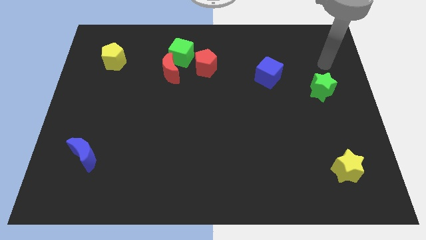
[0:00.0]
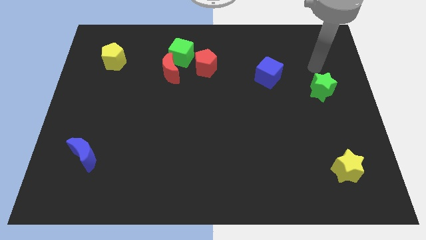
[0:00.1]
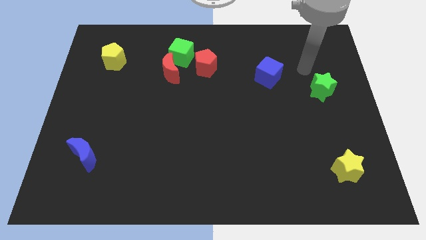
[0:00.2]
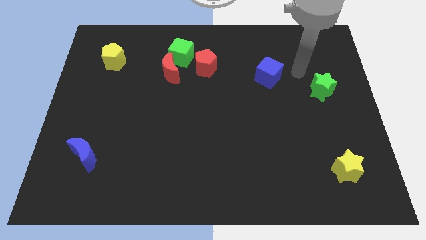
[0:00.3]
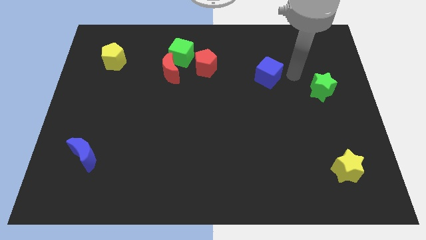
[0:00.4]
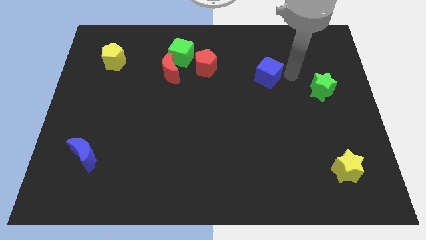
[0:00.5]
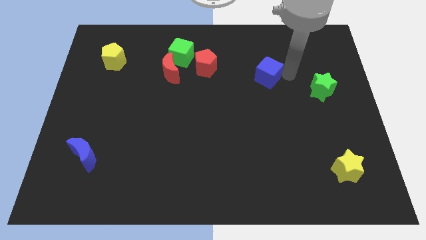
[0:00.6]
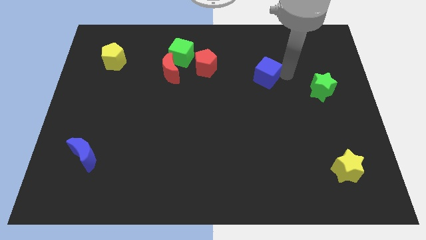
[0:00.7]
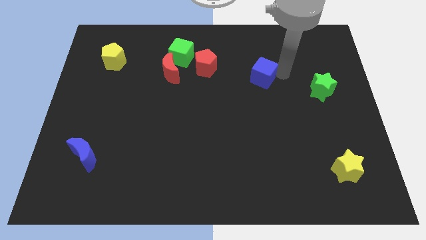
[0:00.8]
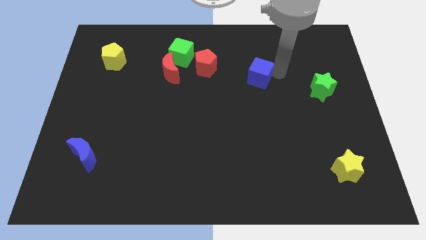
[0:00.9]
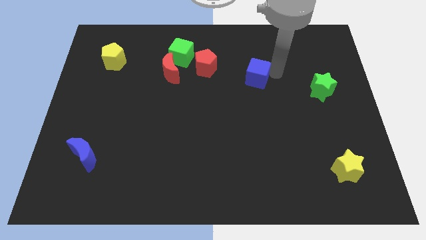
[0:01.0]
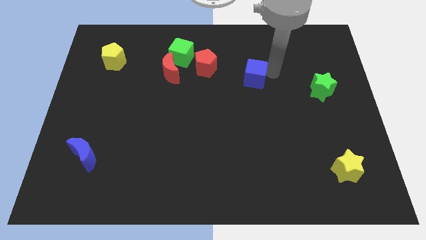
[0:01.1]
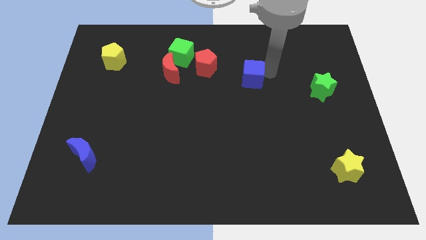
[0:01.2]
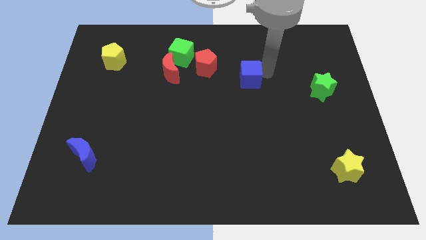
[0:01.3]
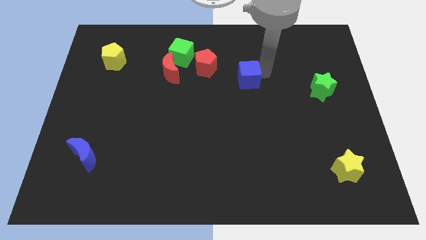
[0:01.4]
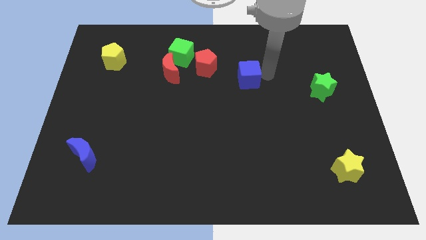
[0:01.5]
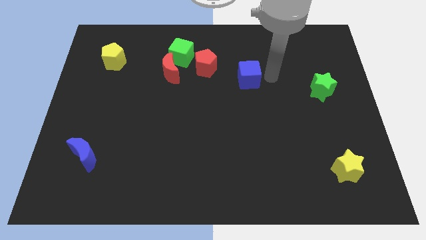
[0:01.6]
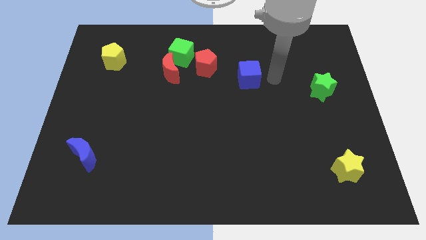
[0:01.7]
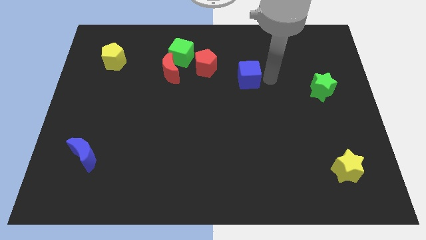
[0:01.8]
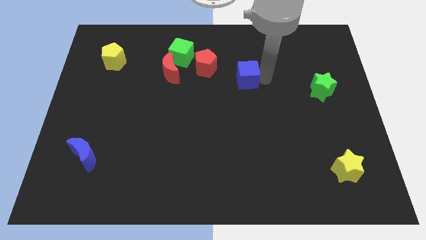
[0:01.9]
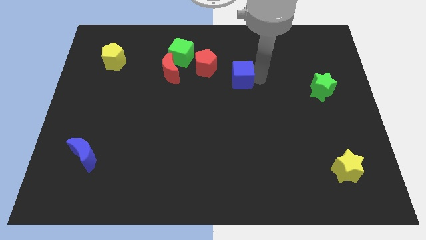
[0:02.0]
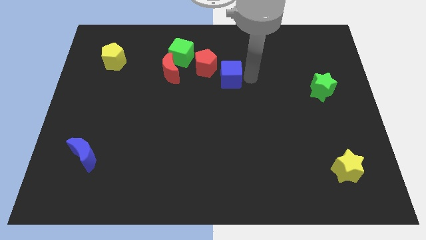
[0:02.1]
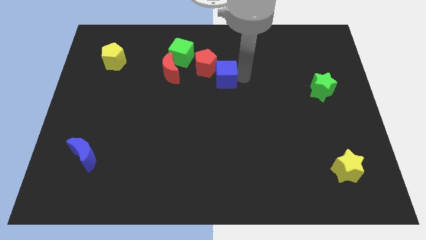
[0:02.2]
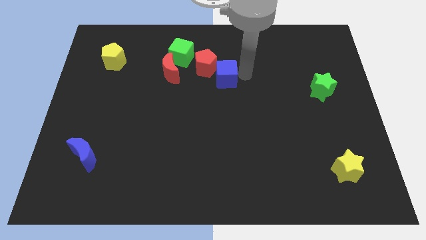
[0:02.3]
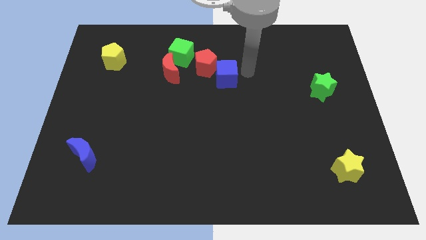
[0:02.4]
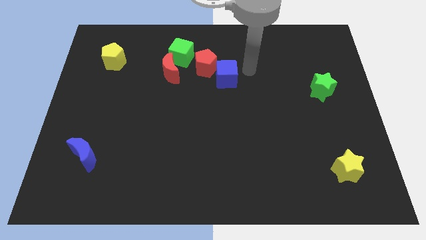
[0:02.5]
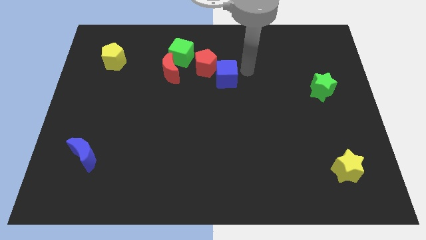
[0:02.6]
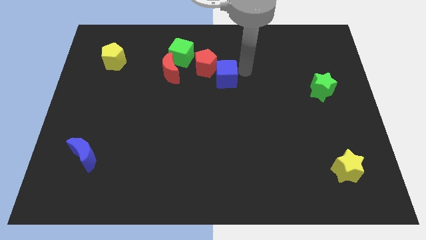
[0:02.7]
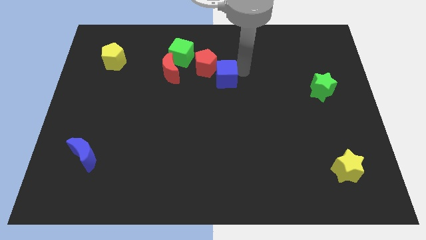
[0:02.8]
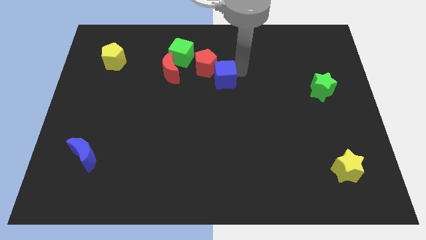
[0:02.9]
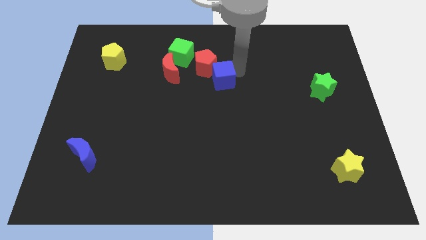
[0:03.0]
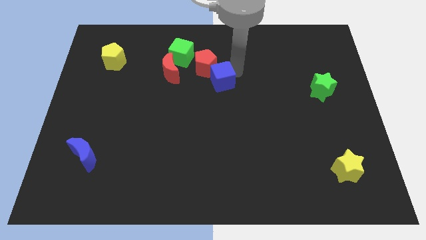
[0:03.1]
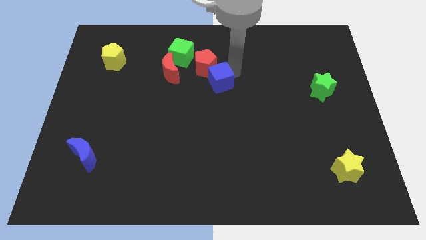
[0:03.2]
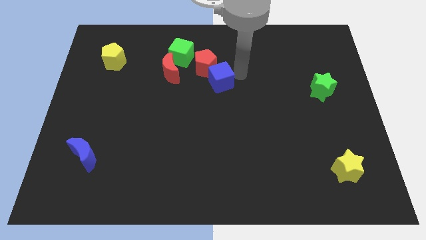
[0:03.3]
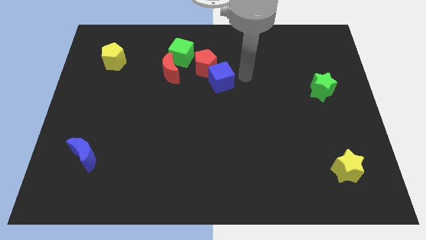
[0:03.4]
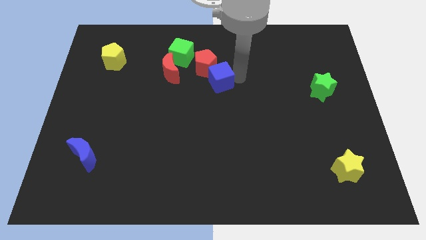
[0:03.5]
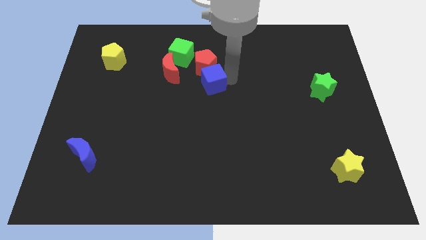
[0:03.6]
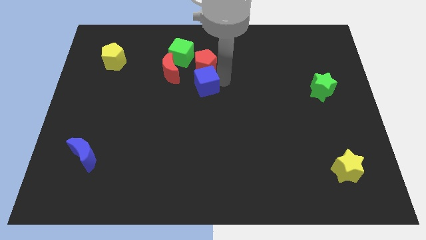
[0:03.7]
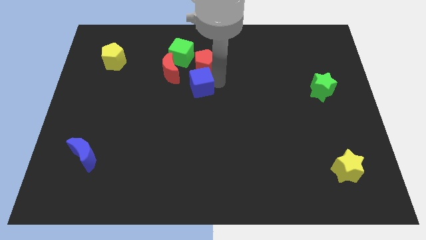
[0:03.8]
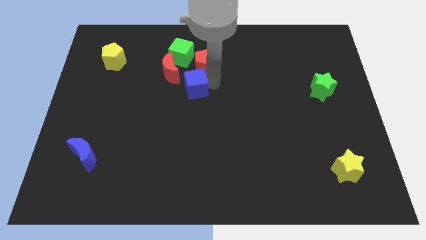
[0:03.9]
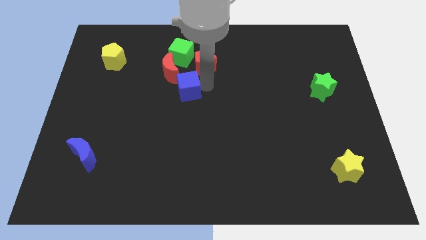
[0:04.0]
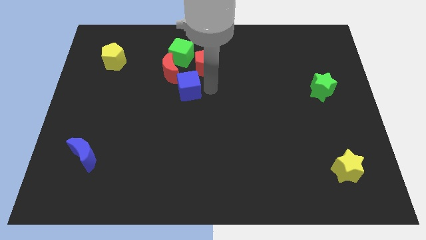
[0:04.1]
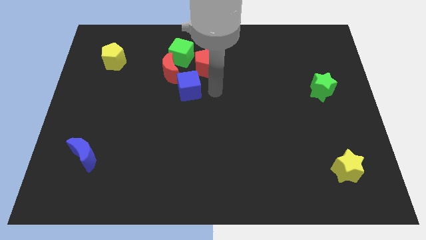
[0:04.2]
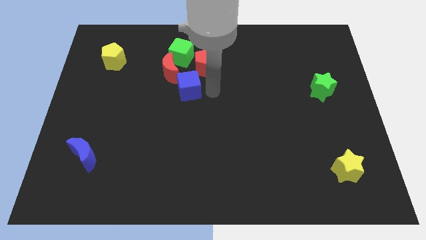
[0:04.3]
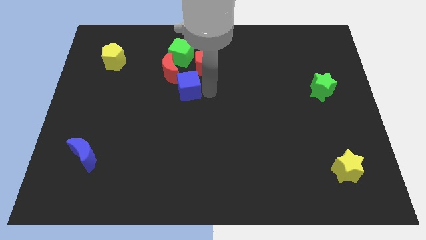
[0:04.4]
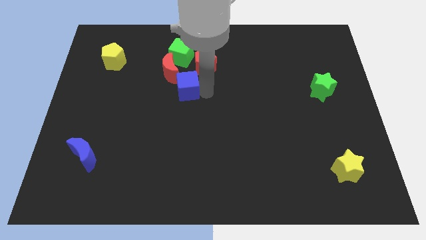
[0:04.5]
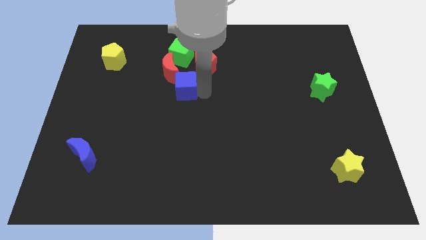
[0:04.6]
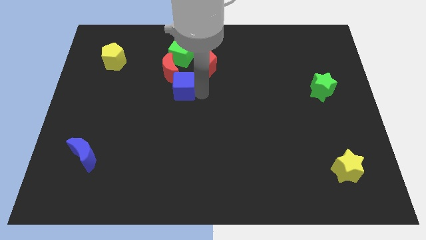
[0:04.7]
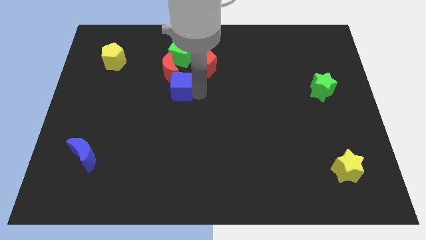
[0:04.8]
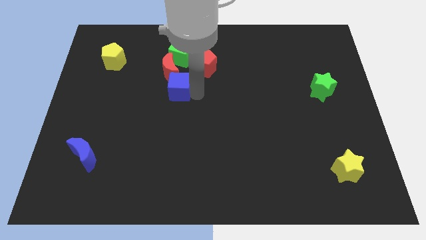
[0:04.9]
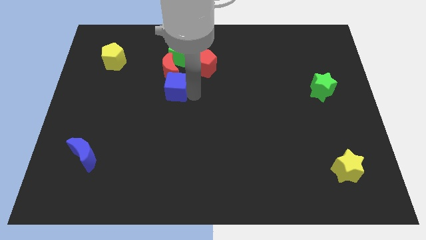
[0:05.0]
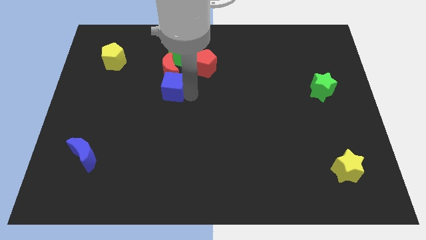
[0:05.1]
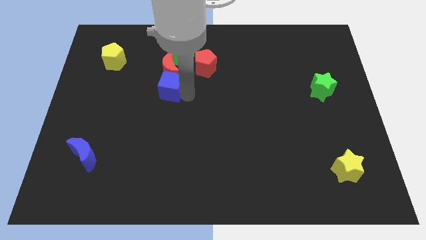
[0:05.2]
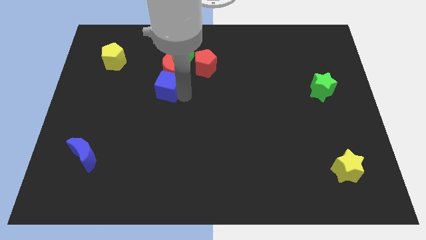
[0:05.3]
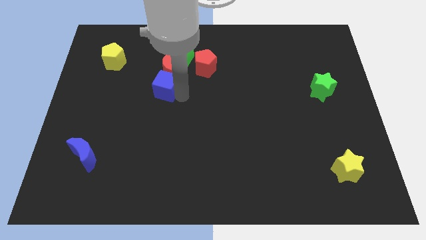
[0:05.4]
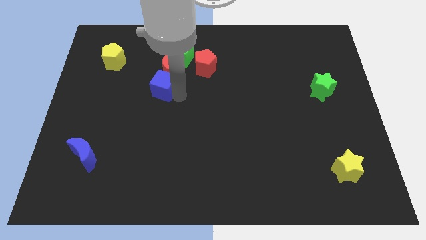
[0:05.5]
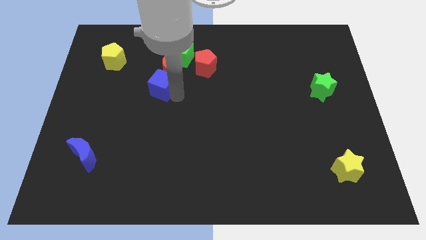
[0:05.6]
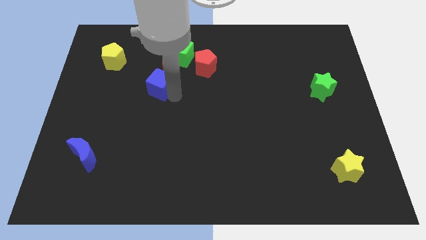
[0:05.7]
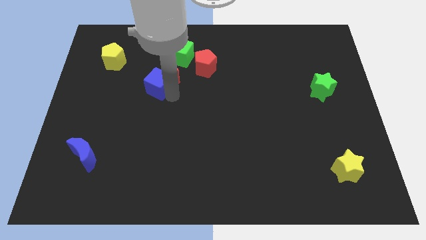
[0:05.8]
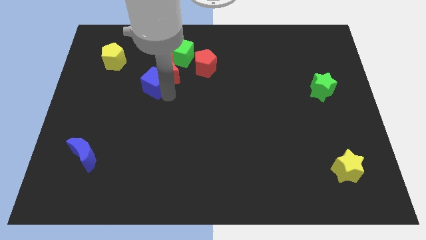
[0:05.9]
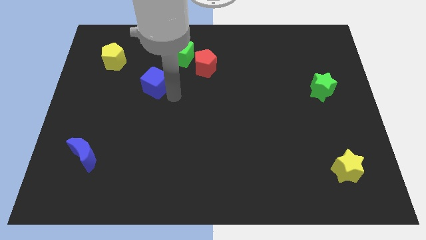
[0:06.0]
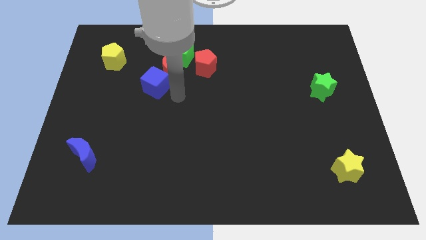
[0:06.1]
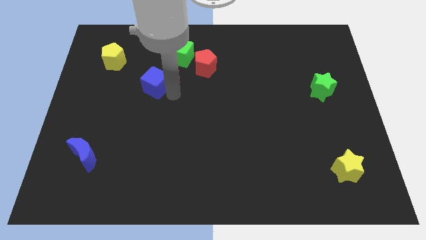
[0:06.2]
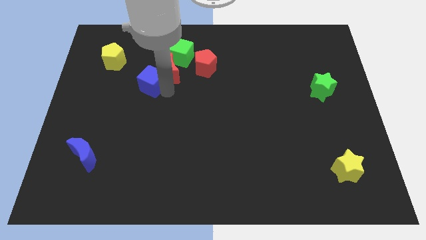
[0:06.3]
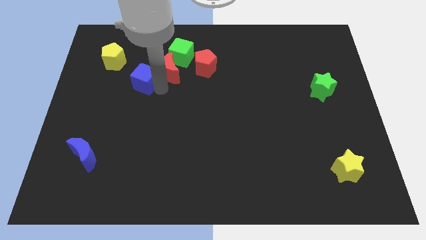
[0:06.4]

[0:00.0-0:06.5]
push the blue cube to the bottom right of the yellow pentagon

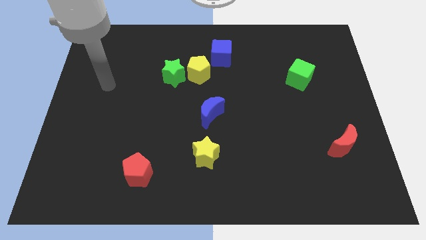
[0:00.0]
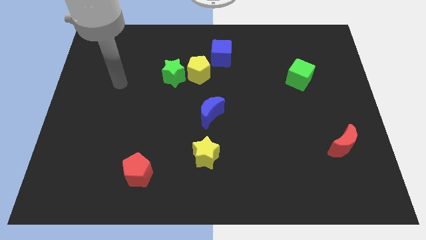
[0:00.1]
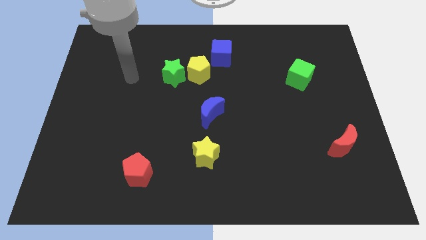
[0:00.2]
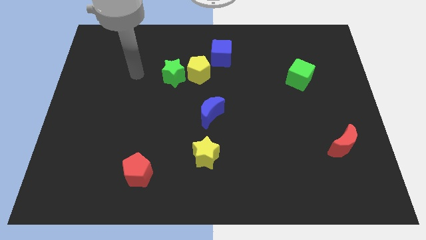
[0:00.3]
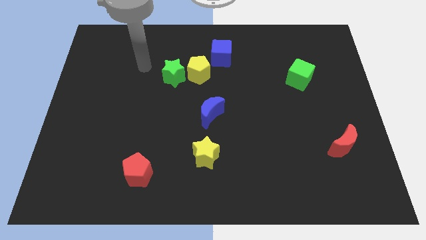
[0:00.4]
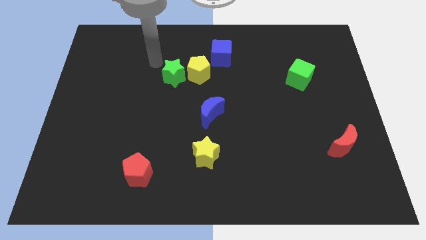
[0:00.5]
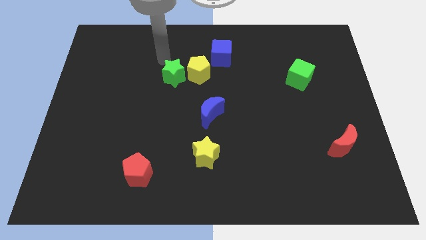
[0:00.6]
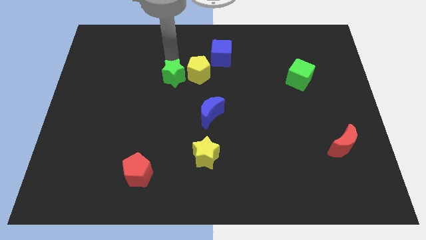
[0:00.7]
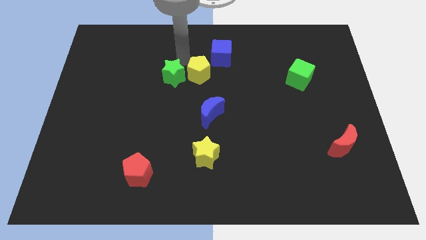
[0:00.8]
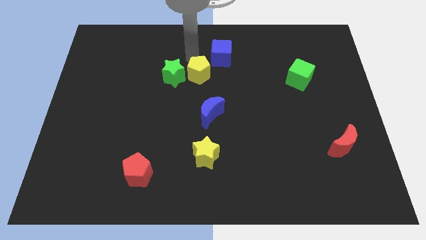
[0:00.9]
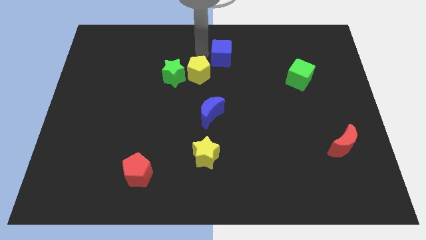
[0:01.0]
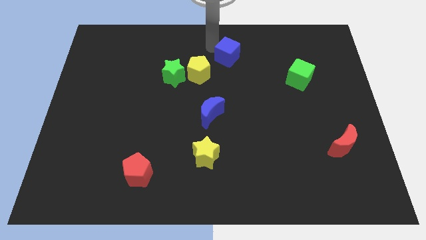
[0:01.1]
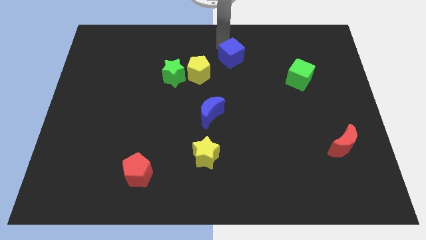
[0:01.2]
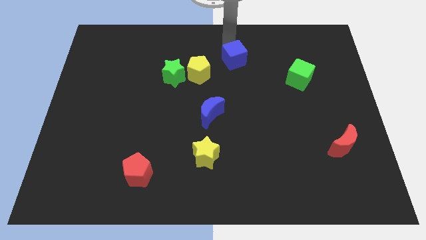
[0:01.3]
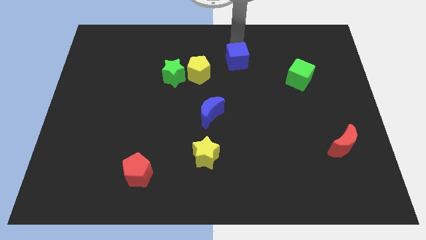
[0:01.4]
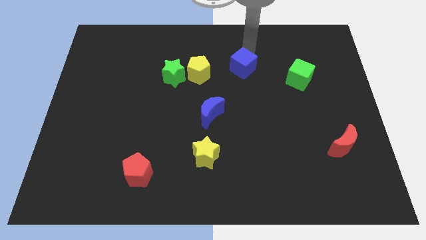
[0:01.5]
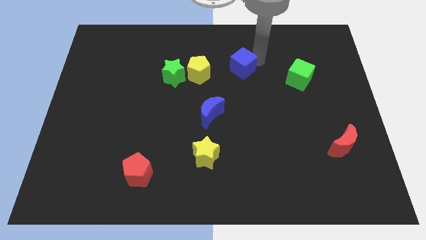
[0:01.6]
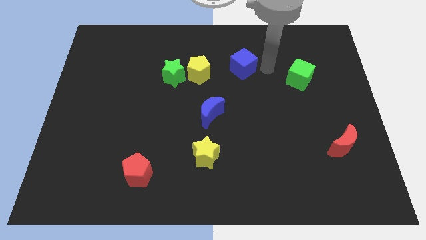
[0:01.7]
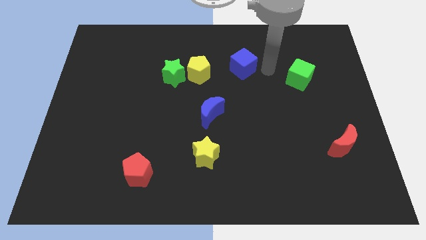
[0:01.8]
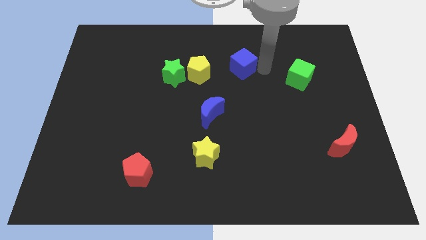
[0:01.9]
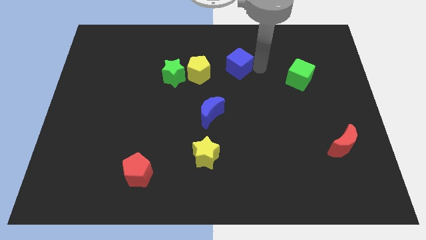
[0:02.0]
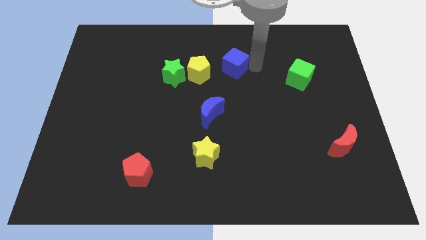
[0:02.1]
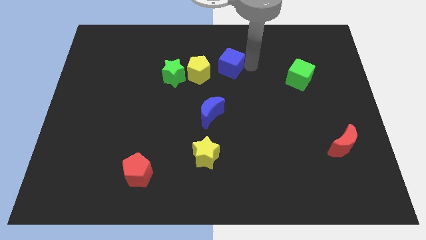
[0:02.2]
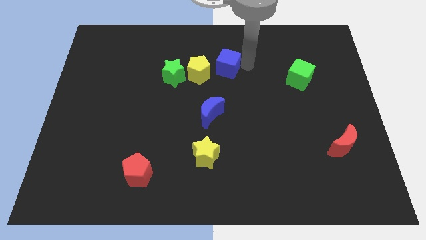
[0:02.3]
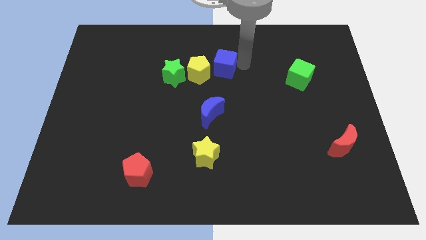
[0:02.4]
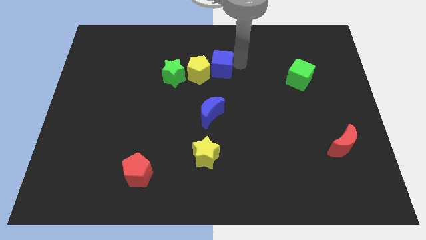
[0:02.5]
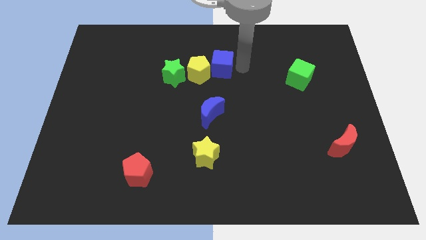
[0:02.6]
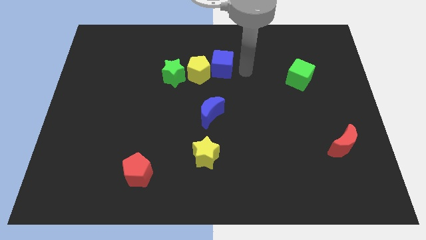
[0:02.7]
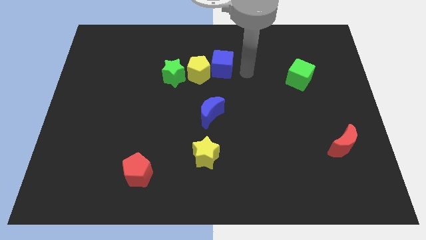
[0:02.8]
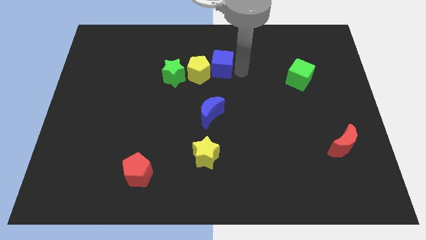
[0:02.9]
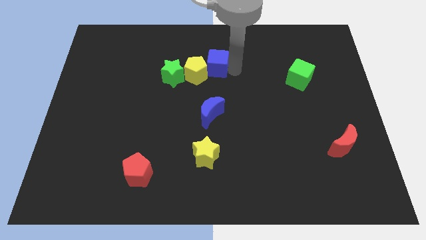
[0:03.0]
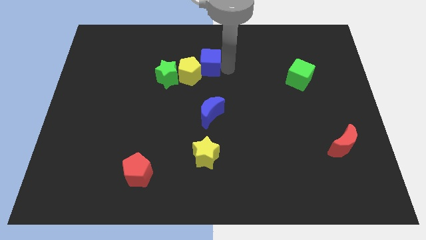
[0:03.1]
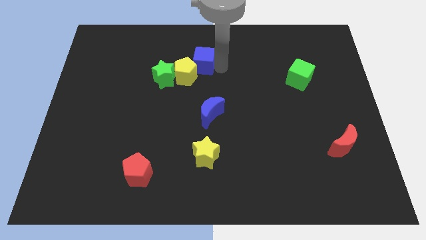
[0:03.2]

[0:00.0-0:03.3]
push the blue cube diagonally up and to the right of the green star
